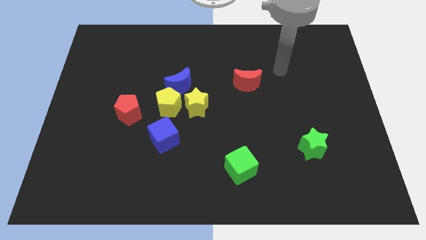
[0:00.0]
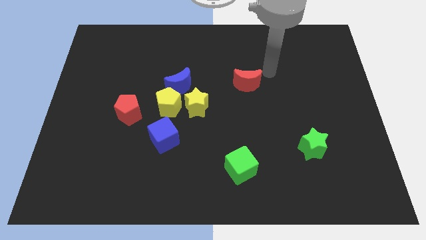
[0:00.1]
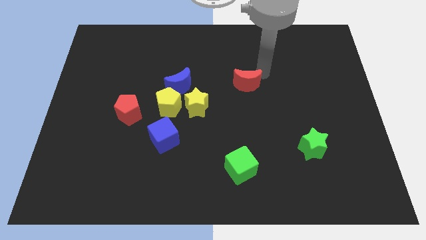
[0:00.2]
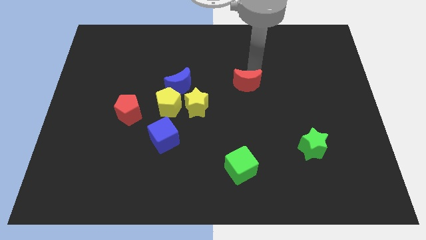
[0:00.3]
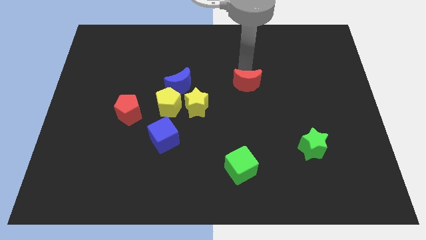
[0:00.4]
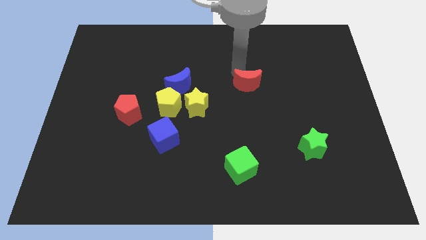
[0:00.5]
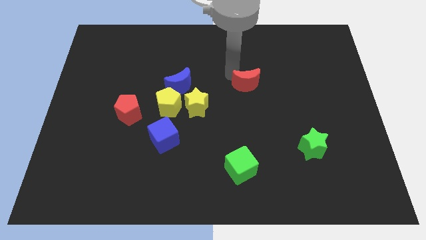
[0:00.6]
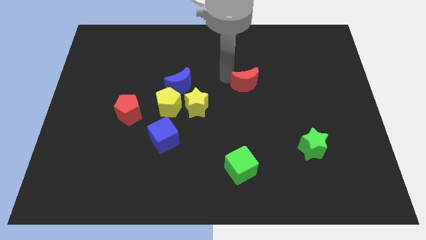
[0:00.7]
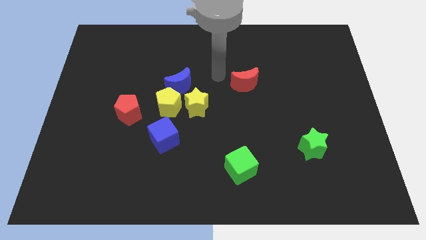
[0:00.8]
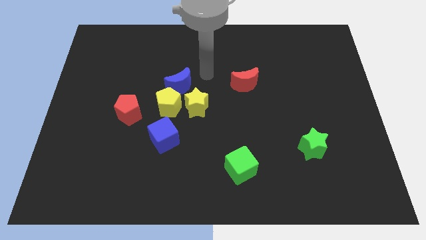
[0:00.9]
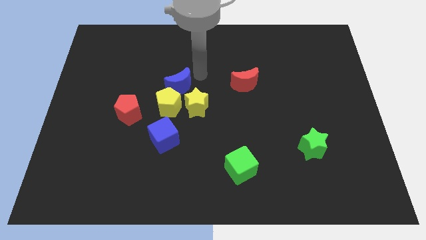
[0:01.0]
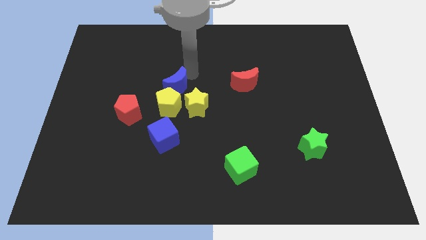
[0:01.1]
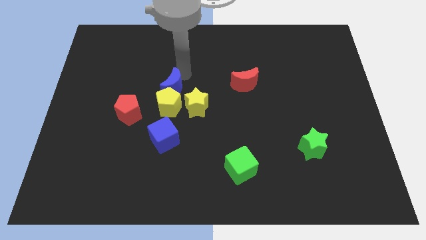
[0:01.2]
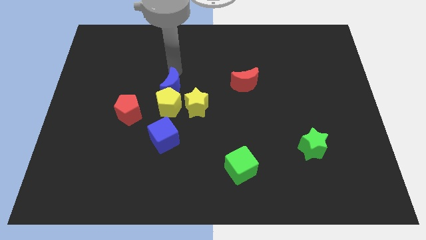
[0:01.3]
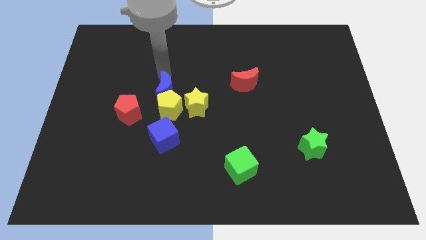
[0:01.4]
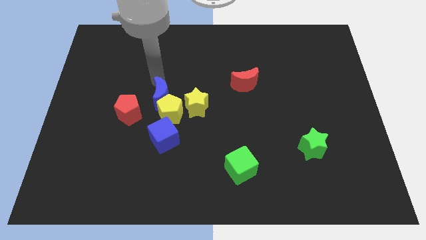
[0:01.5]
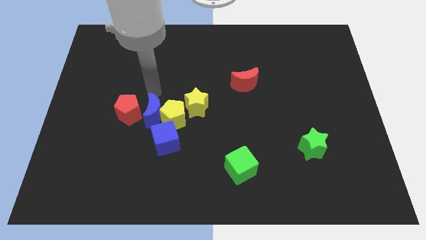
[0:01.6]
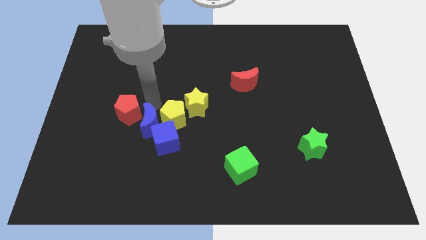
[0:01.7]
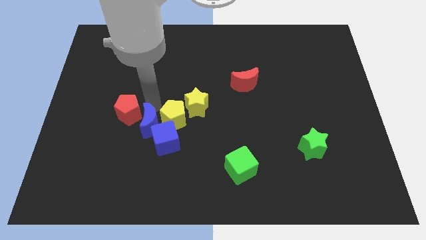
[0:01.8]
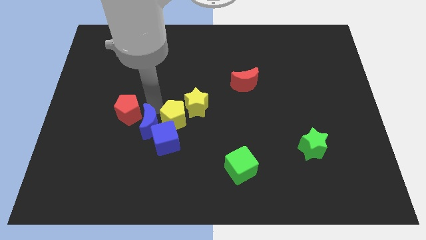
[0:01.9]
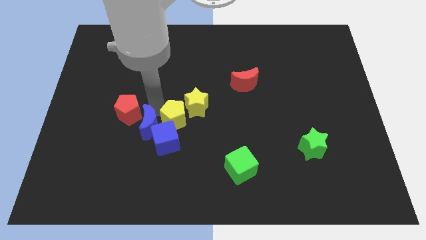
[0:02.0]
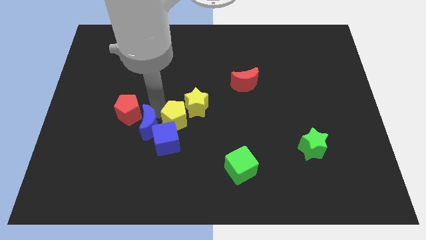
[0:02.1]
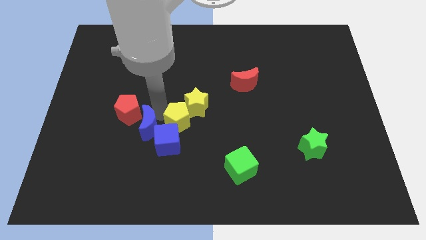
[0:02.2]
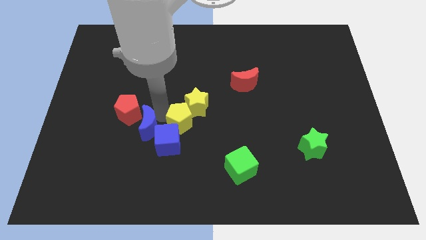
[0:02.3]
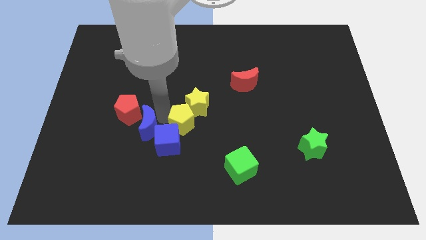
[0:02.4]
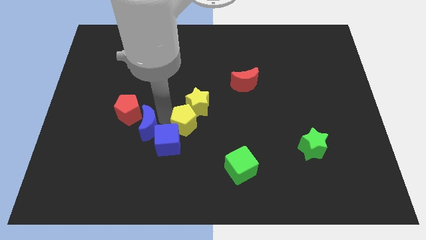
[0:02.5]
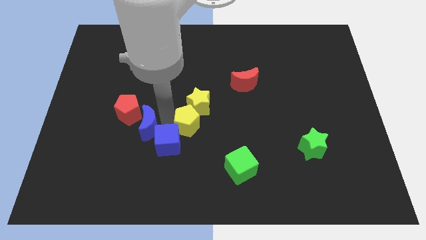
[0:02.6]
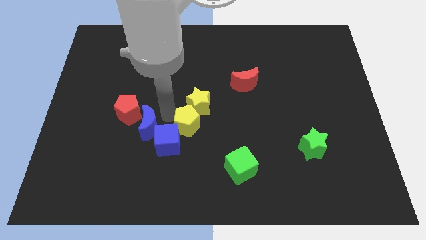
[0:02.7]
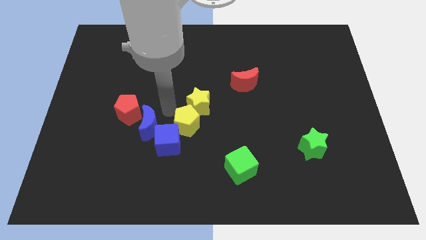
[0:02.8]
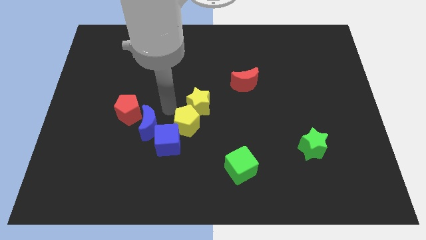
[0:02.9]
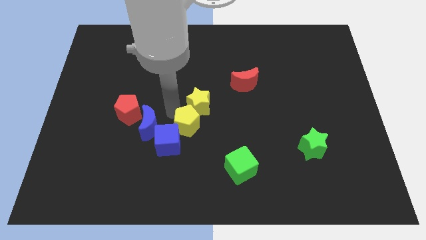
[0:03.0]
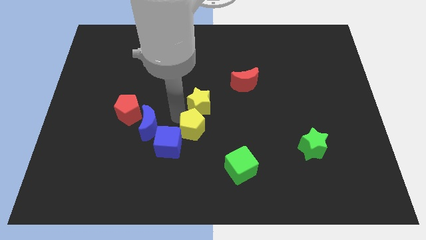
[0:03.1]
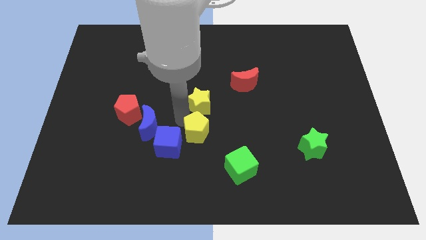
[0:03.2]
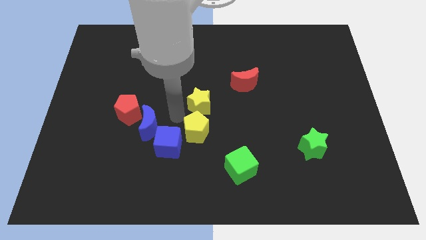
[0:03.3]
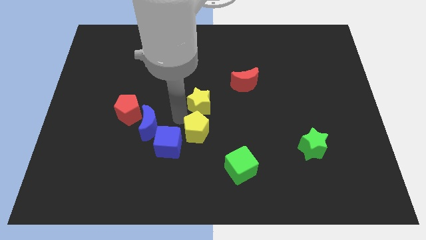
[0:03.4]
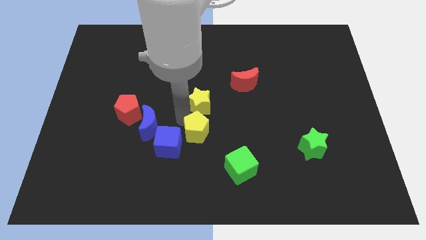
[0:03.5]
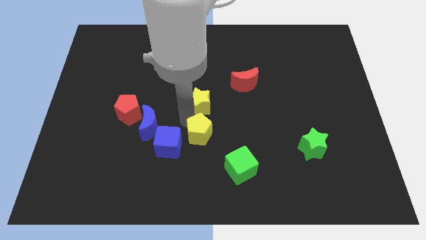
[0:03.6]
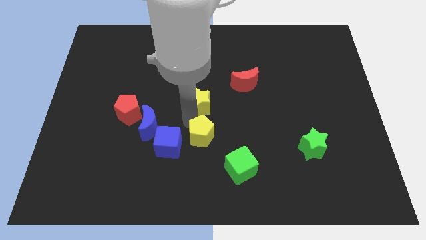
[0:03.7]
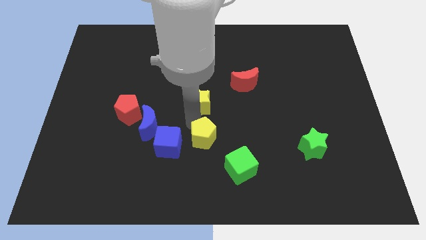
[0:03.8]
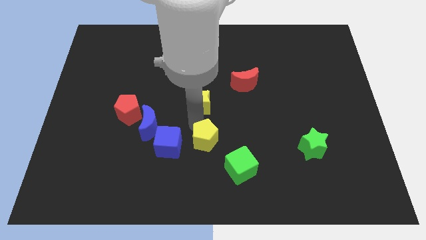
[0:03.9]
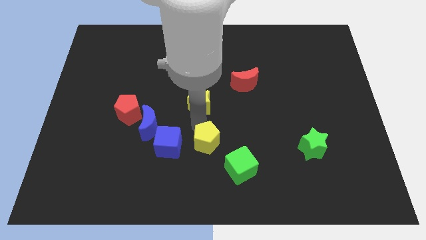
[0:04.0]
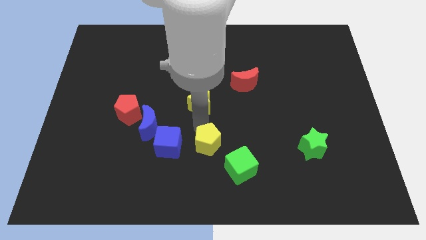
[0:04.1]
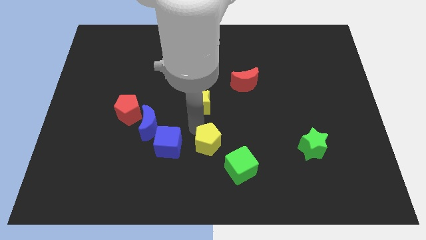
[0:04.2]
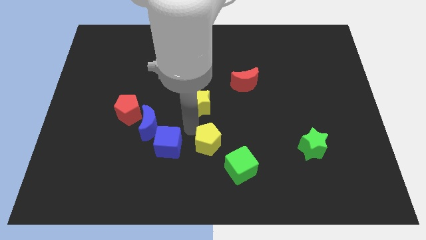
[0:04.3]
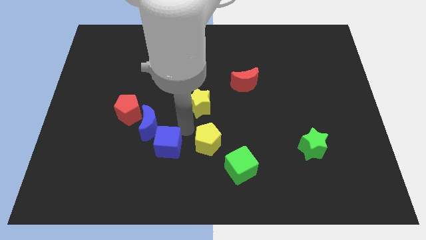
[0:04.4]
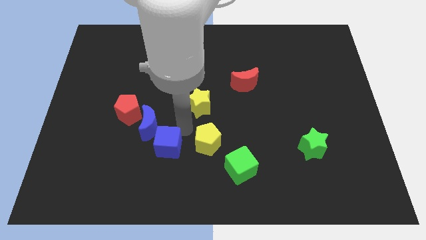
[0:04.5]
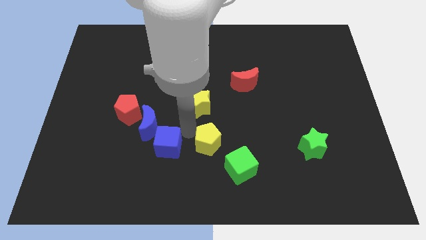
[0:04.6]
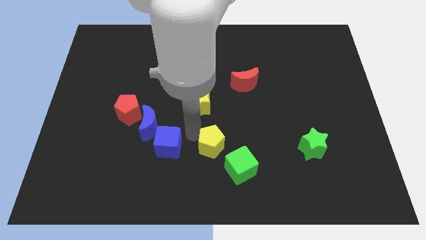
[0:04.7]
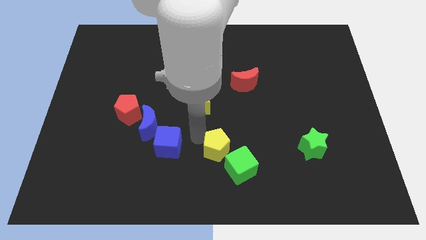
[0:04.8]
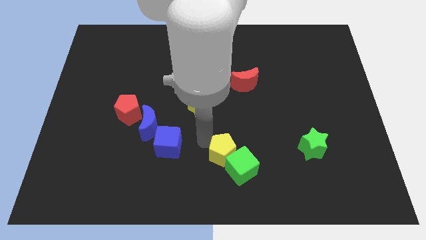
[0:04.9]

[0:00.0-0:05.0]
move the yellow pentagon close to the green cube

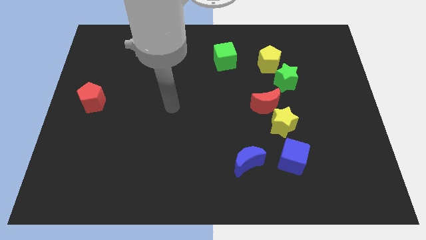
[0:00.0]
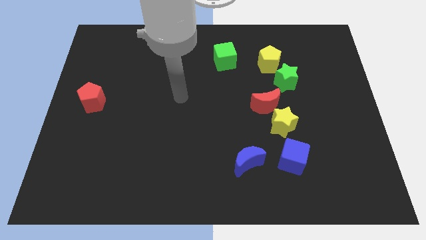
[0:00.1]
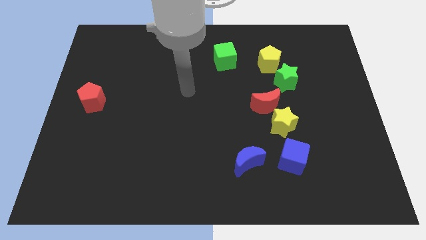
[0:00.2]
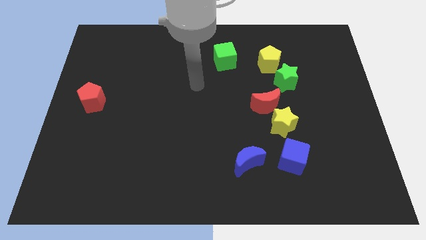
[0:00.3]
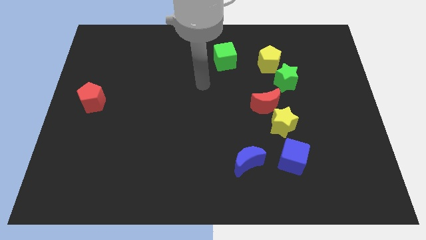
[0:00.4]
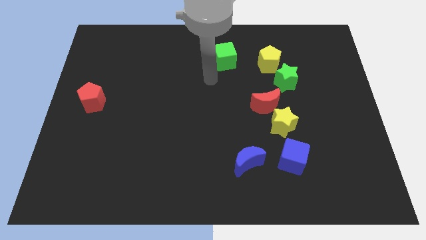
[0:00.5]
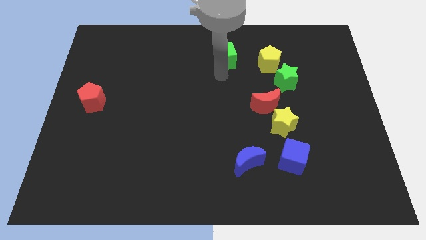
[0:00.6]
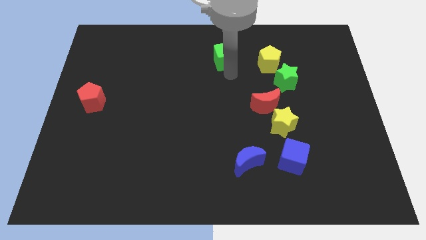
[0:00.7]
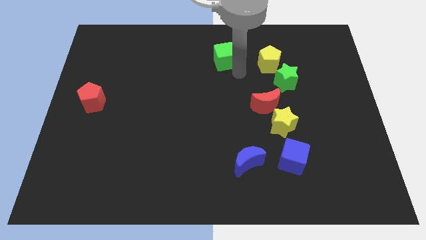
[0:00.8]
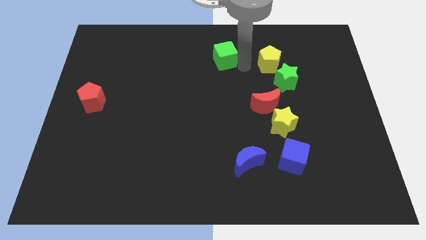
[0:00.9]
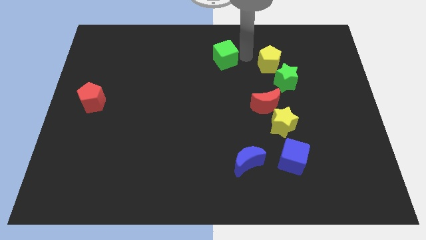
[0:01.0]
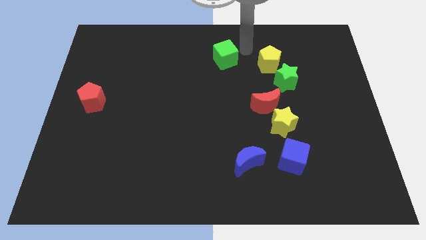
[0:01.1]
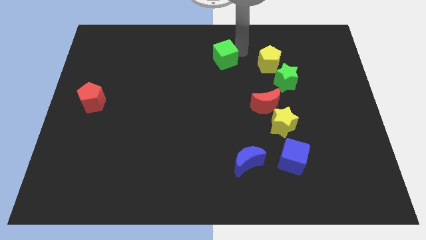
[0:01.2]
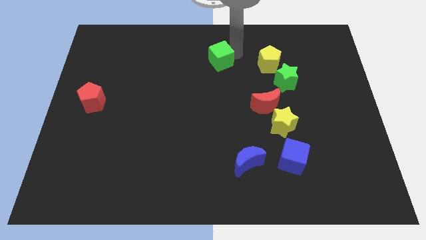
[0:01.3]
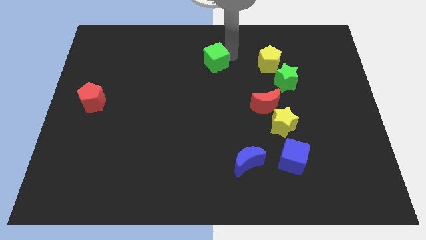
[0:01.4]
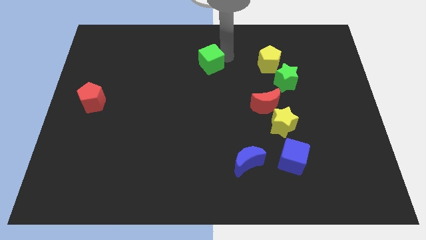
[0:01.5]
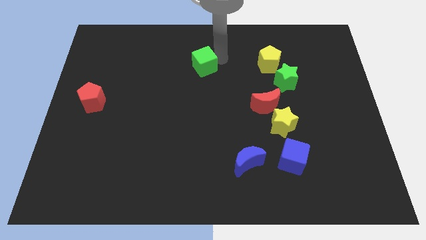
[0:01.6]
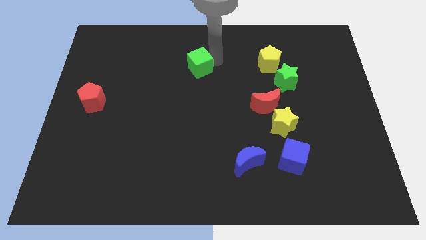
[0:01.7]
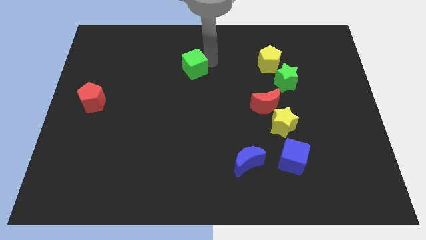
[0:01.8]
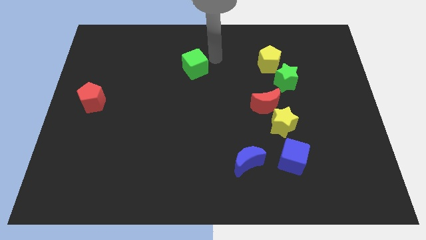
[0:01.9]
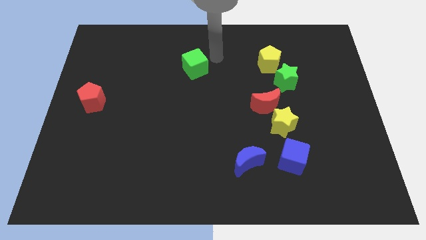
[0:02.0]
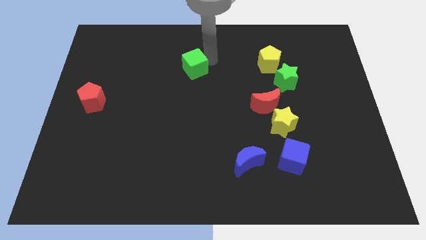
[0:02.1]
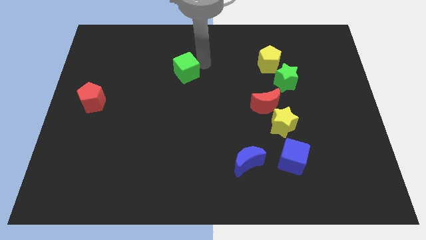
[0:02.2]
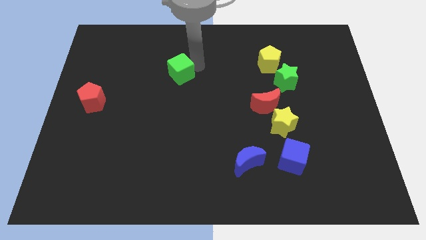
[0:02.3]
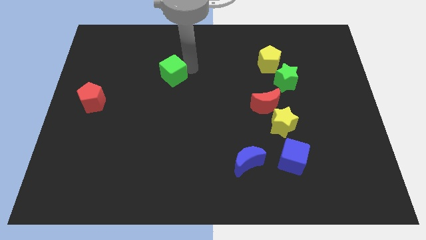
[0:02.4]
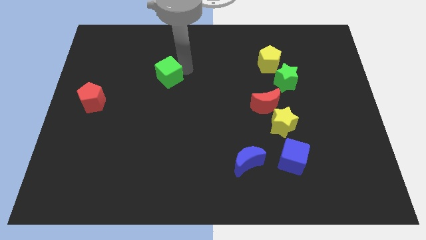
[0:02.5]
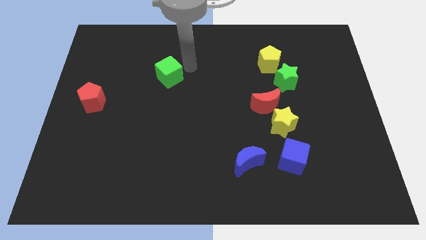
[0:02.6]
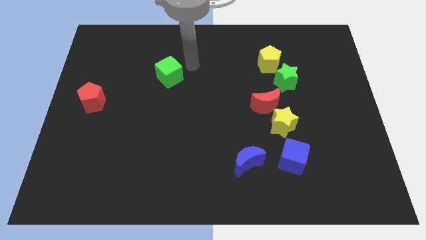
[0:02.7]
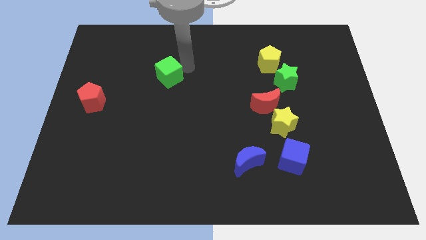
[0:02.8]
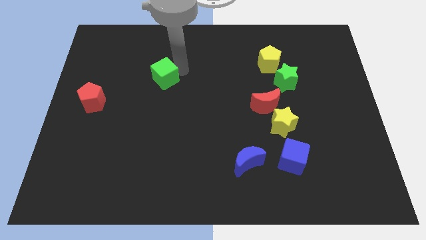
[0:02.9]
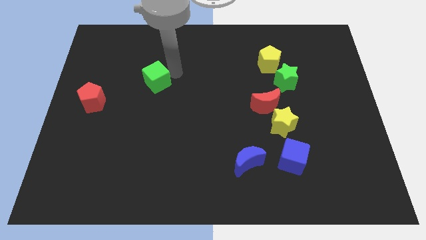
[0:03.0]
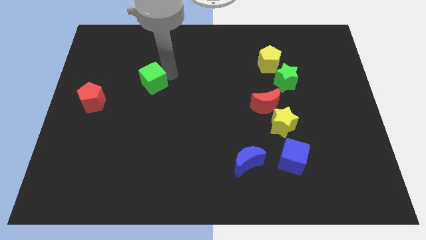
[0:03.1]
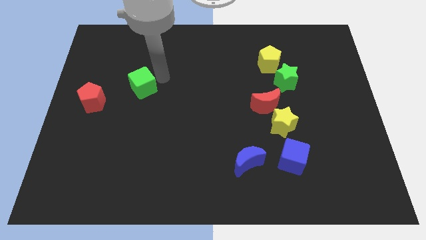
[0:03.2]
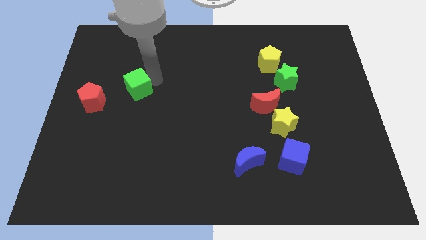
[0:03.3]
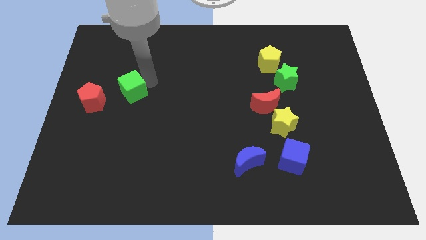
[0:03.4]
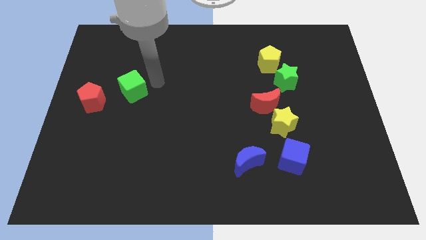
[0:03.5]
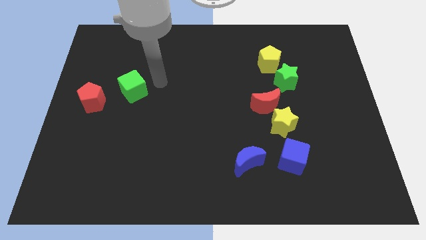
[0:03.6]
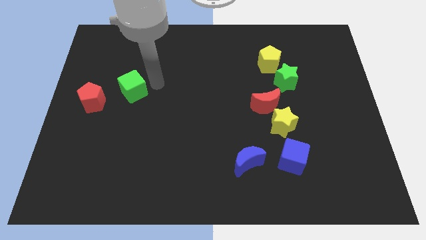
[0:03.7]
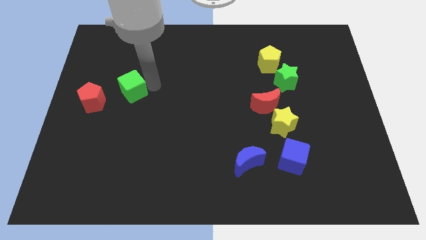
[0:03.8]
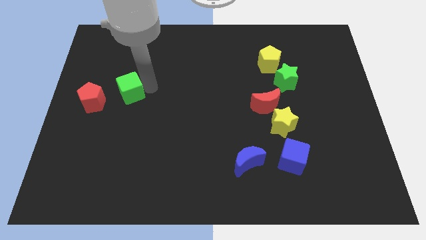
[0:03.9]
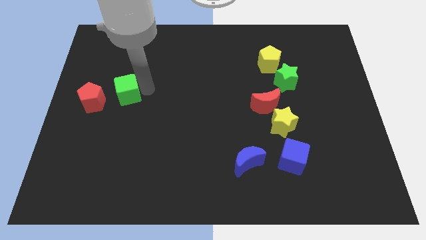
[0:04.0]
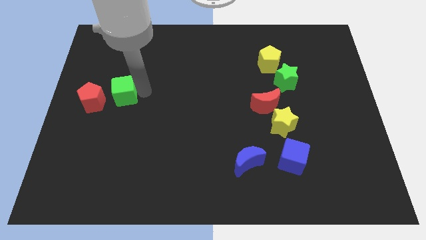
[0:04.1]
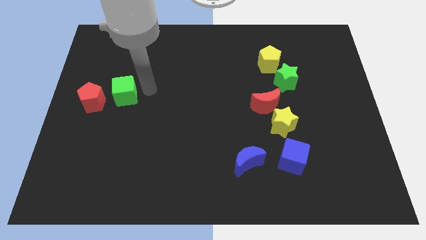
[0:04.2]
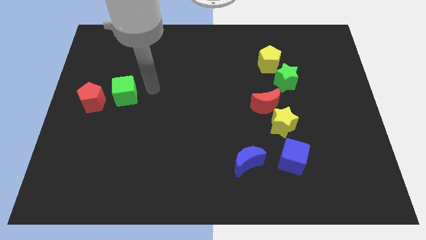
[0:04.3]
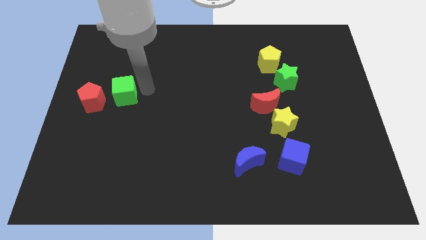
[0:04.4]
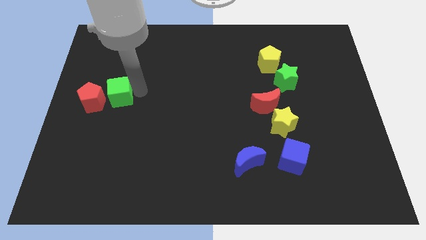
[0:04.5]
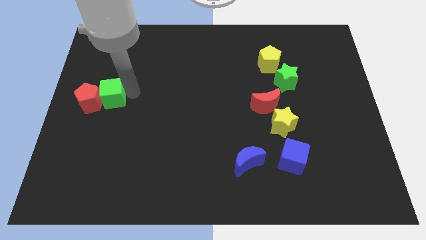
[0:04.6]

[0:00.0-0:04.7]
put the green cube to the red pentagon
